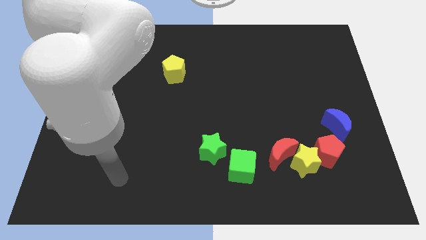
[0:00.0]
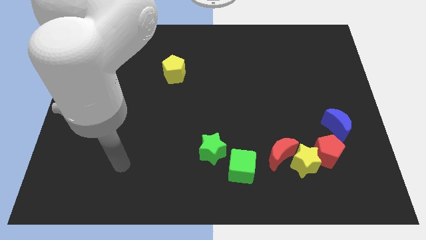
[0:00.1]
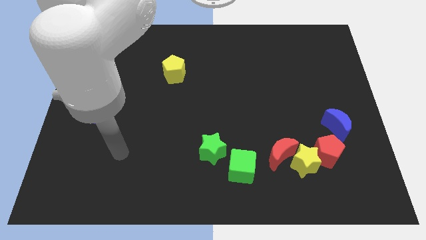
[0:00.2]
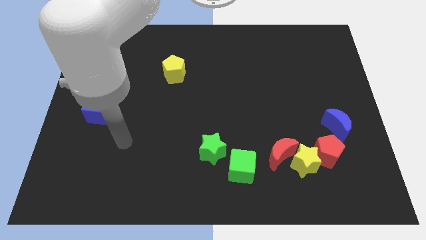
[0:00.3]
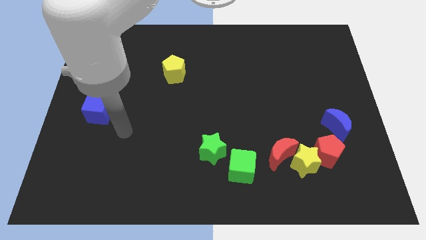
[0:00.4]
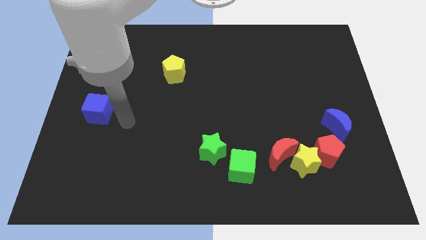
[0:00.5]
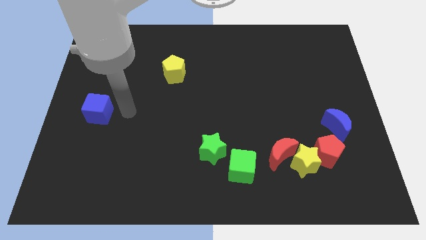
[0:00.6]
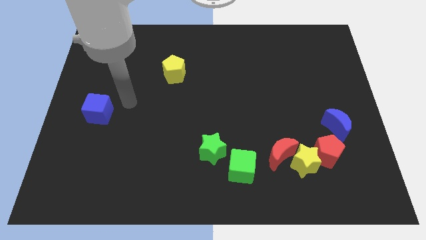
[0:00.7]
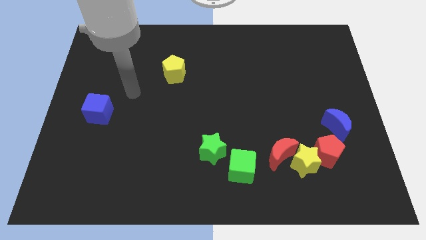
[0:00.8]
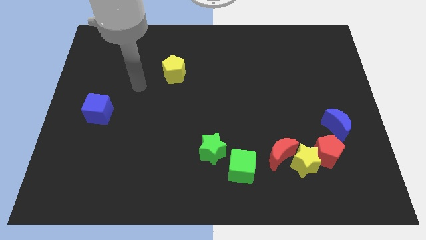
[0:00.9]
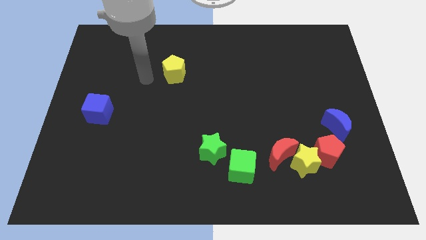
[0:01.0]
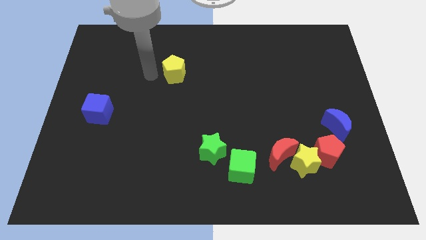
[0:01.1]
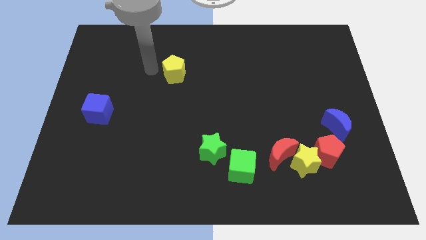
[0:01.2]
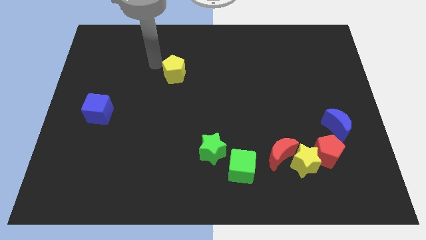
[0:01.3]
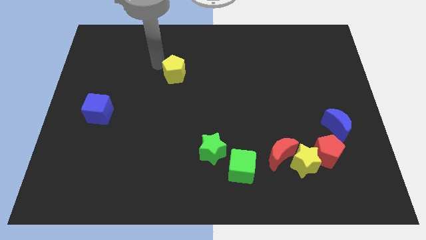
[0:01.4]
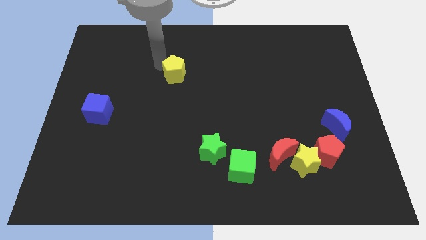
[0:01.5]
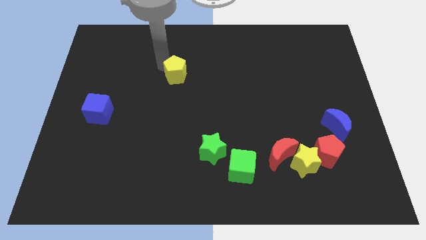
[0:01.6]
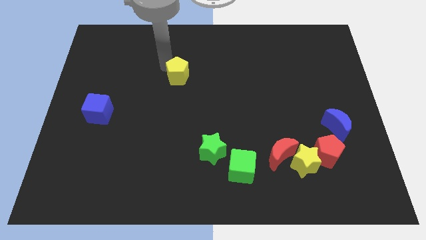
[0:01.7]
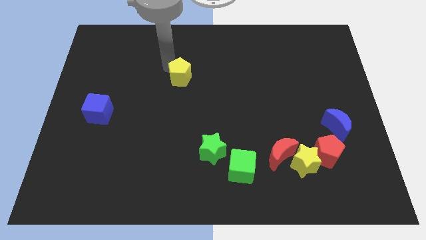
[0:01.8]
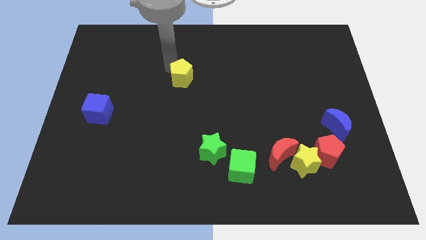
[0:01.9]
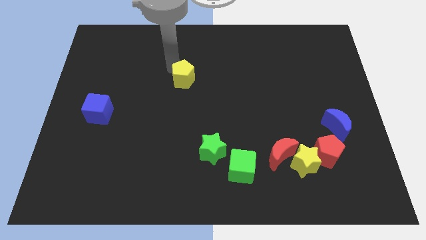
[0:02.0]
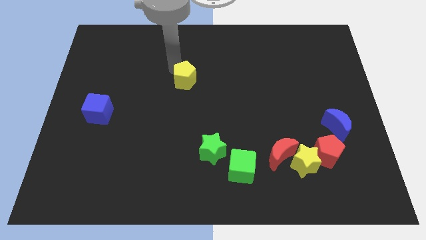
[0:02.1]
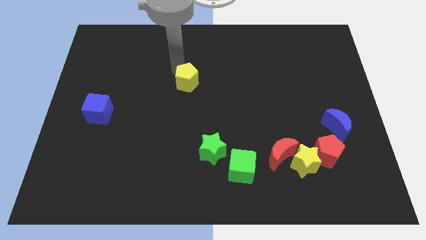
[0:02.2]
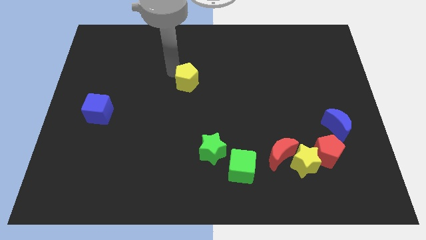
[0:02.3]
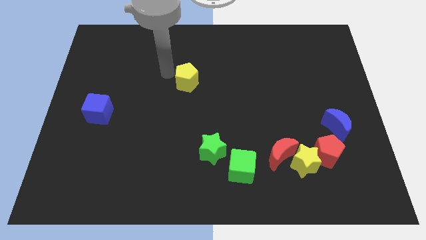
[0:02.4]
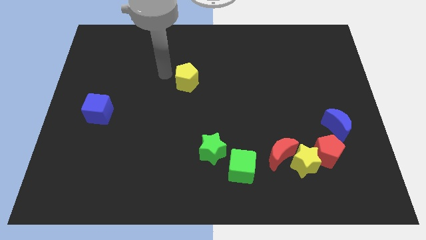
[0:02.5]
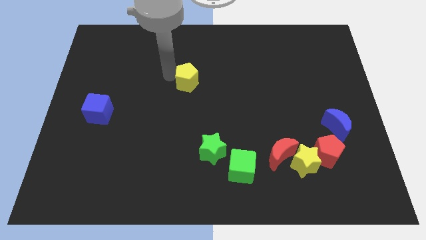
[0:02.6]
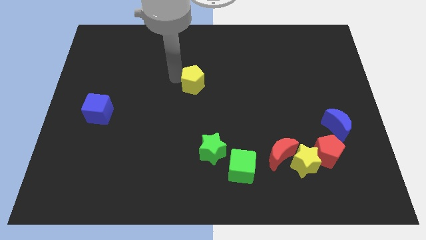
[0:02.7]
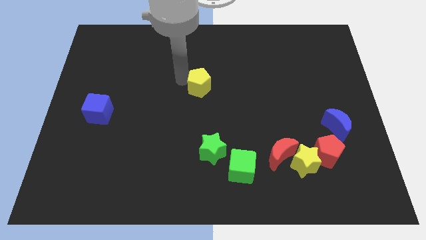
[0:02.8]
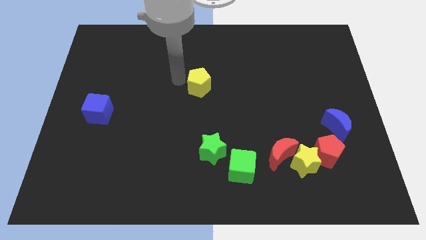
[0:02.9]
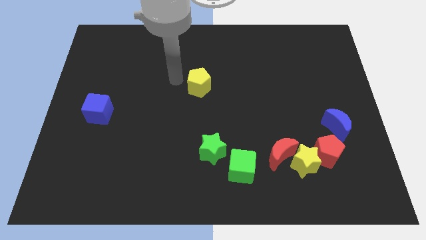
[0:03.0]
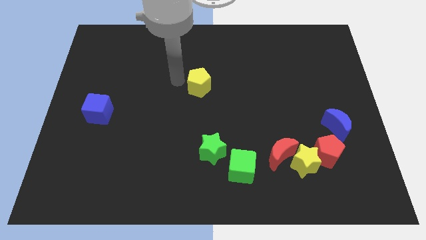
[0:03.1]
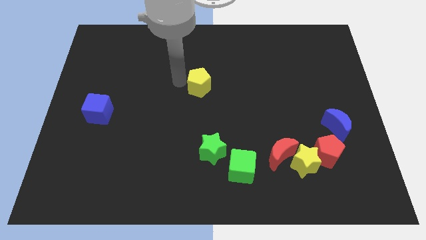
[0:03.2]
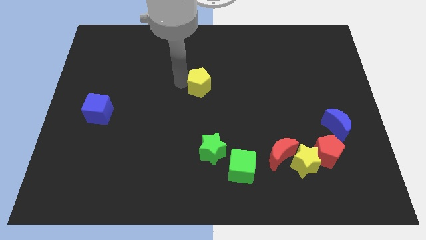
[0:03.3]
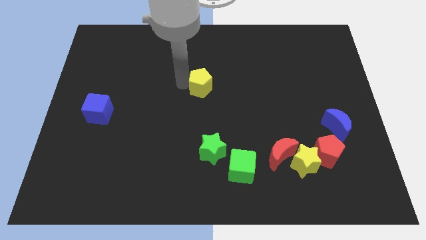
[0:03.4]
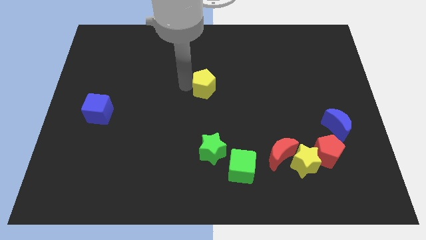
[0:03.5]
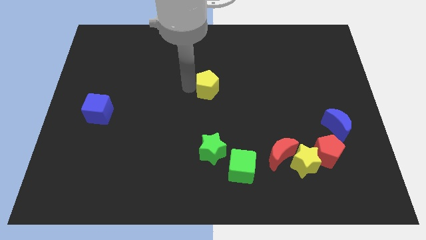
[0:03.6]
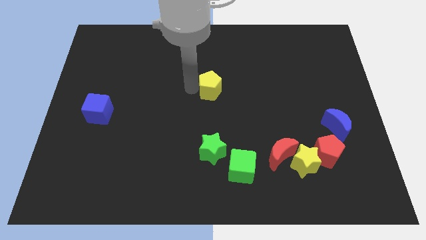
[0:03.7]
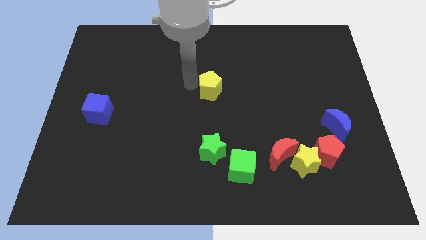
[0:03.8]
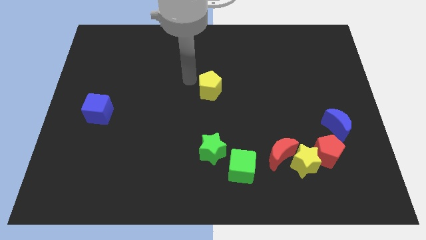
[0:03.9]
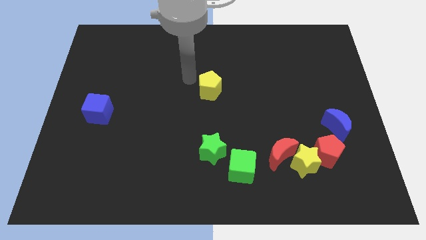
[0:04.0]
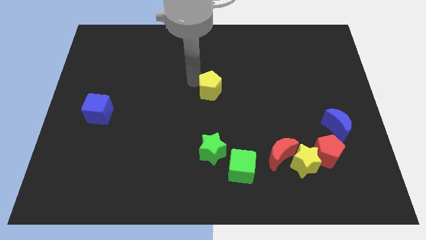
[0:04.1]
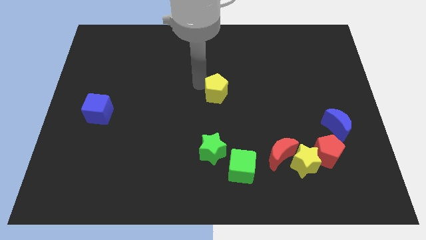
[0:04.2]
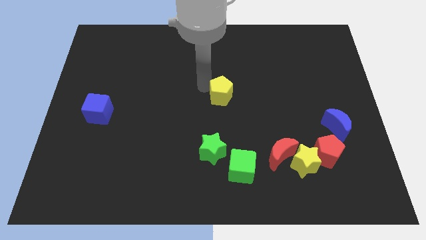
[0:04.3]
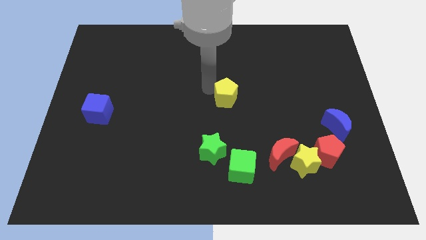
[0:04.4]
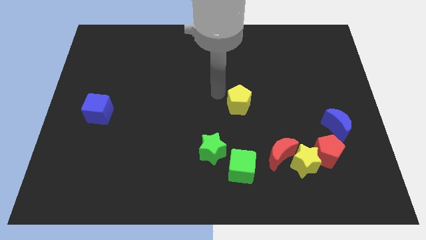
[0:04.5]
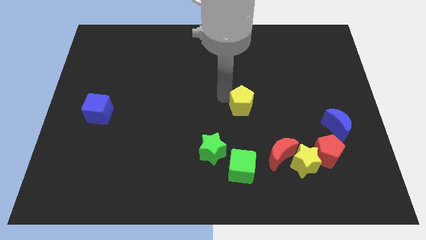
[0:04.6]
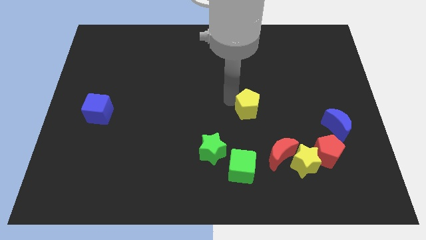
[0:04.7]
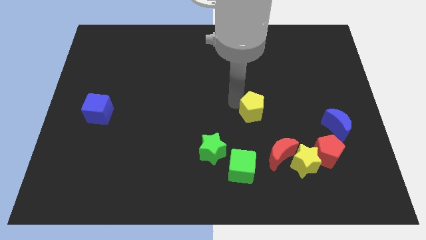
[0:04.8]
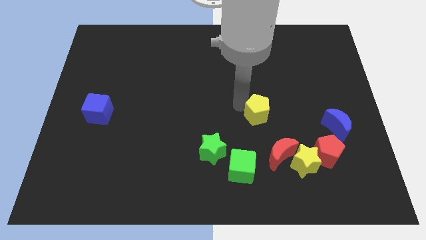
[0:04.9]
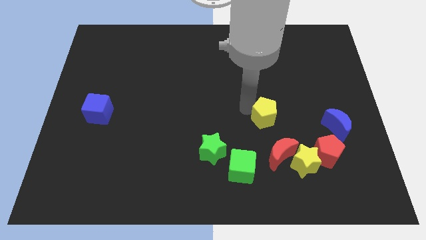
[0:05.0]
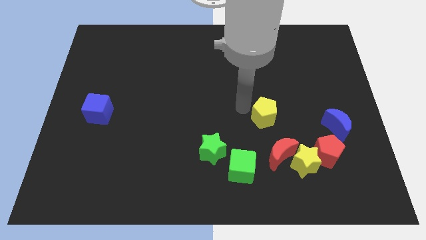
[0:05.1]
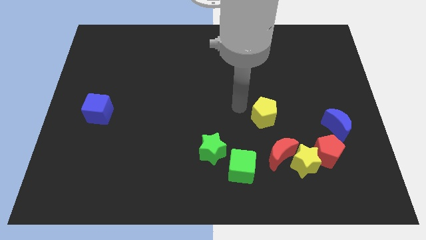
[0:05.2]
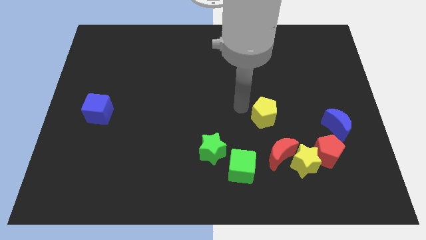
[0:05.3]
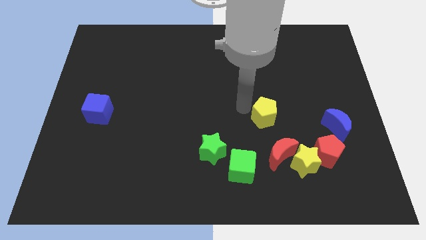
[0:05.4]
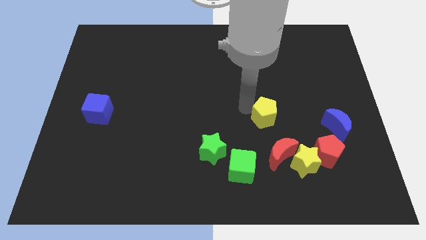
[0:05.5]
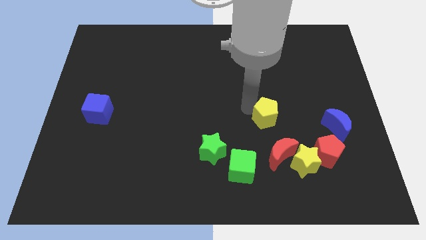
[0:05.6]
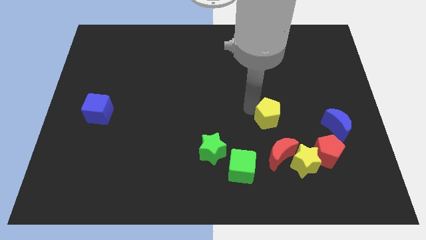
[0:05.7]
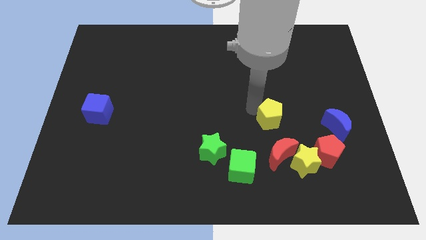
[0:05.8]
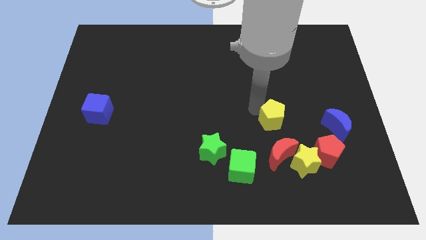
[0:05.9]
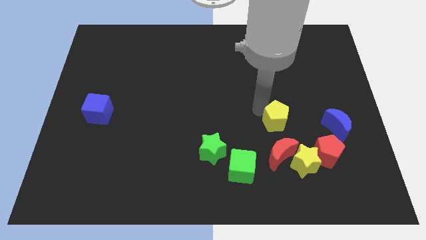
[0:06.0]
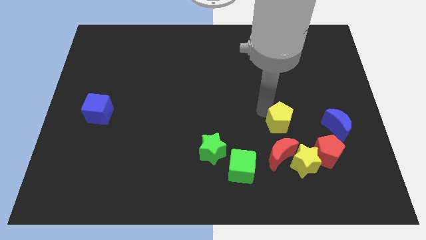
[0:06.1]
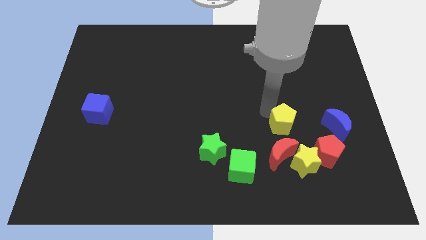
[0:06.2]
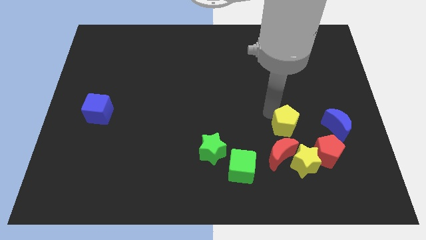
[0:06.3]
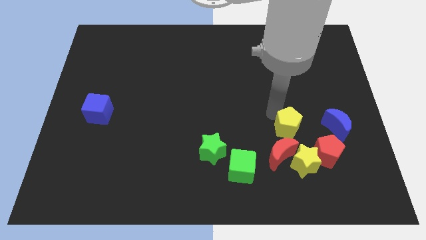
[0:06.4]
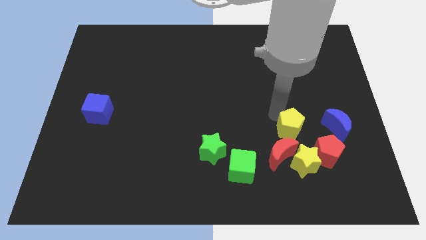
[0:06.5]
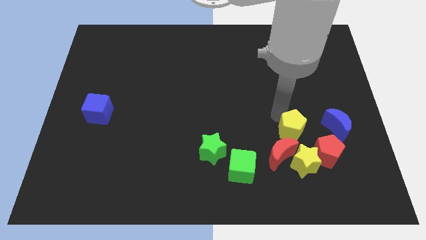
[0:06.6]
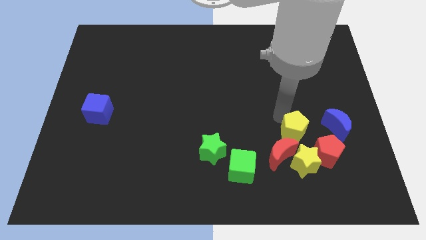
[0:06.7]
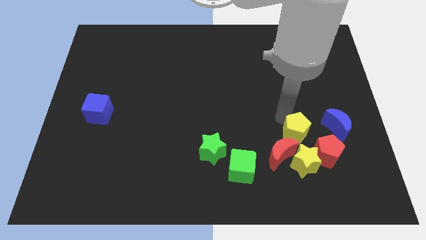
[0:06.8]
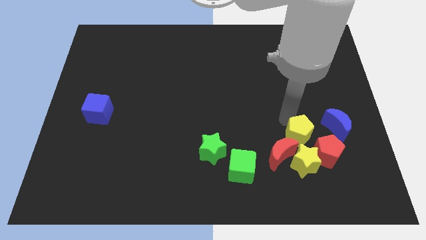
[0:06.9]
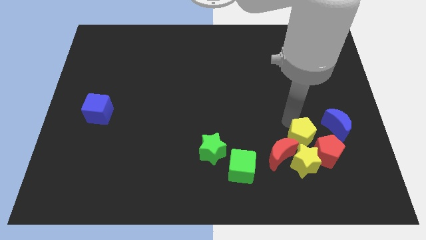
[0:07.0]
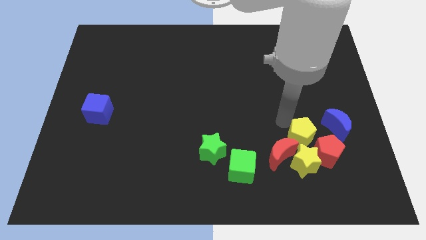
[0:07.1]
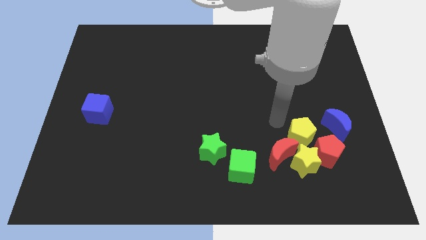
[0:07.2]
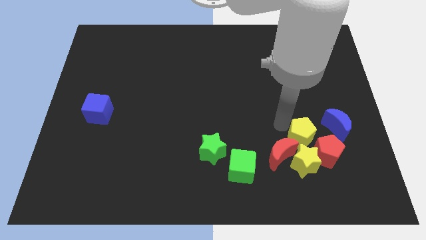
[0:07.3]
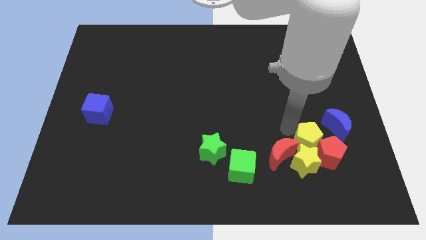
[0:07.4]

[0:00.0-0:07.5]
put the yellow pentagon next to the red pentagon
